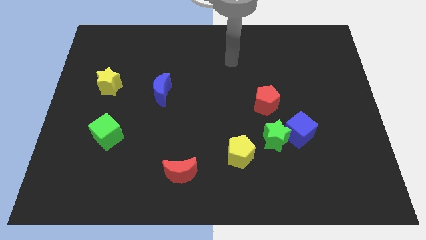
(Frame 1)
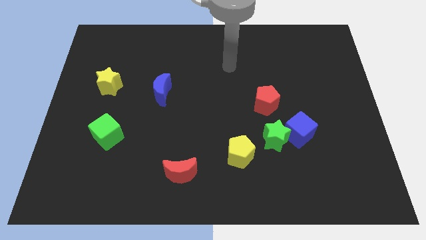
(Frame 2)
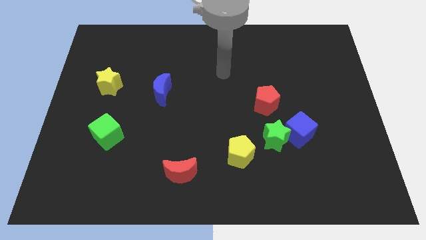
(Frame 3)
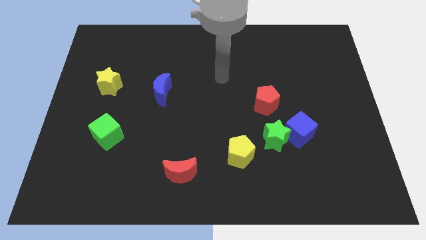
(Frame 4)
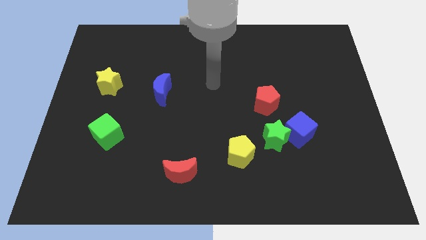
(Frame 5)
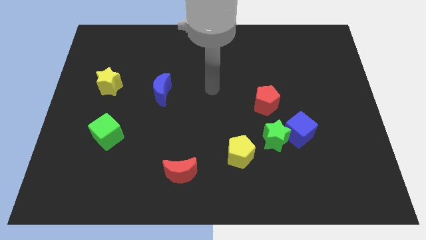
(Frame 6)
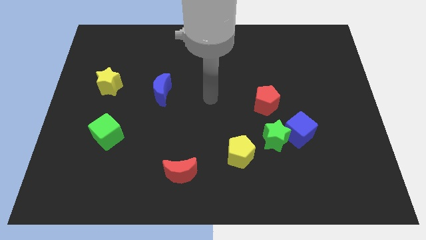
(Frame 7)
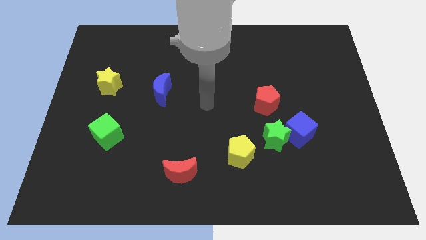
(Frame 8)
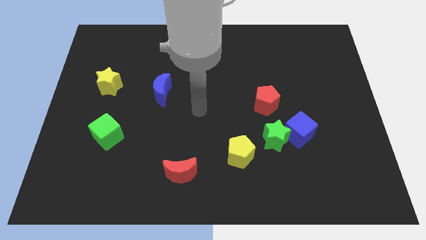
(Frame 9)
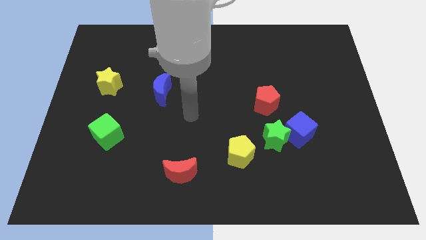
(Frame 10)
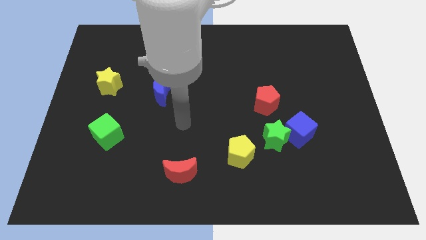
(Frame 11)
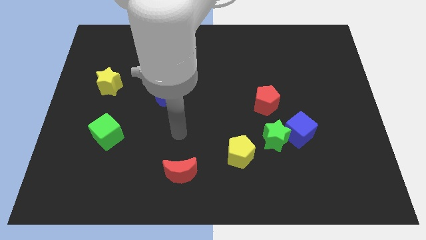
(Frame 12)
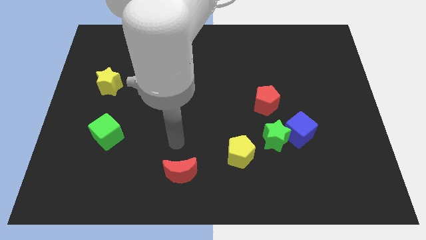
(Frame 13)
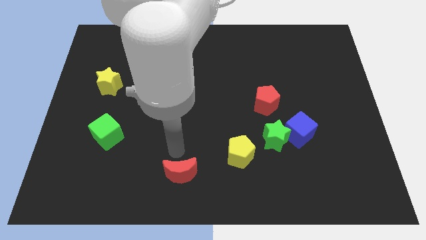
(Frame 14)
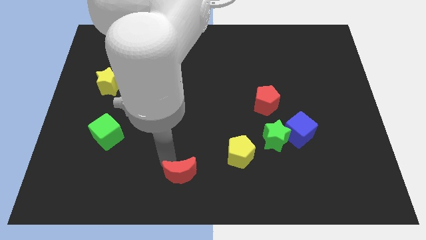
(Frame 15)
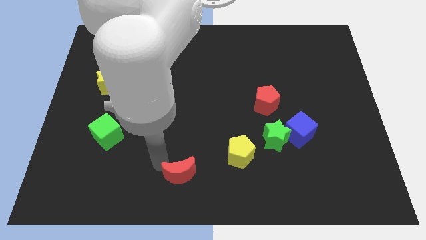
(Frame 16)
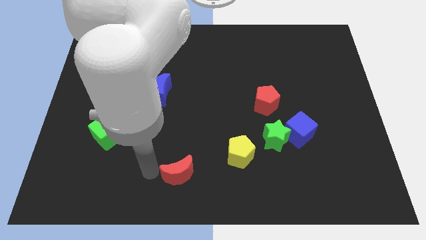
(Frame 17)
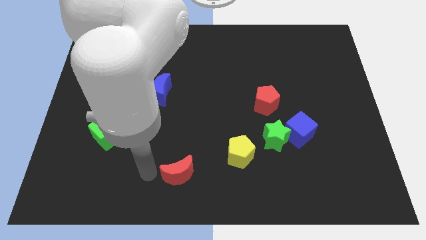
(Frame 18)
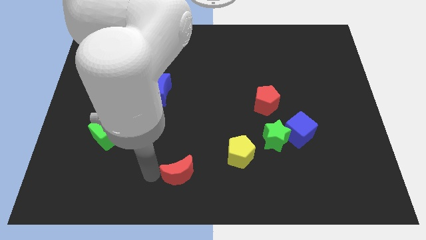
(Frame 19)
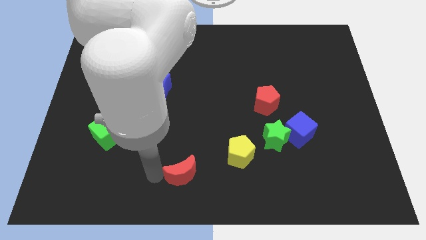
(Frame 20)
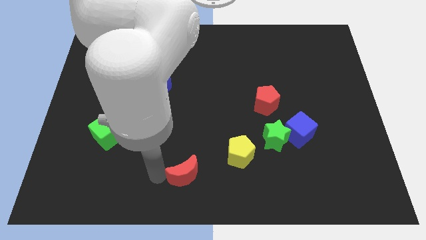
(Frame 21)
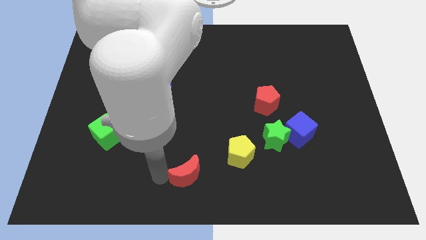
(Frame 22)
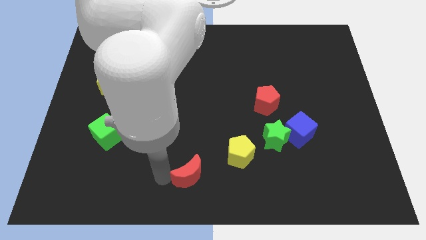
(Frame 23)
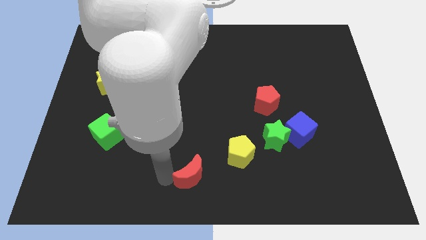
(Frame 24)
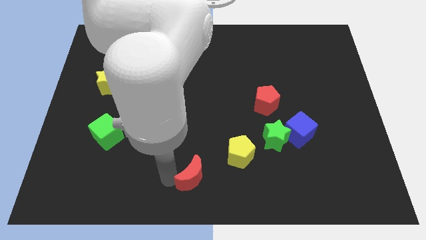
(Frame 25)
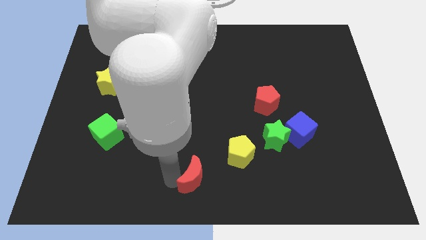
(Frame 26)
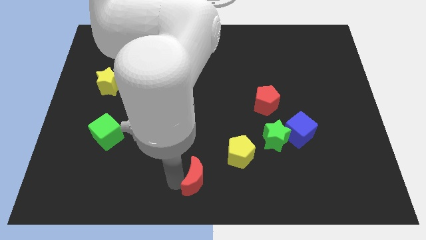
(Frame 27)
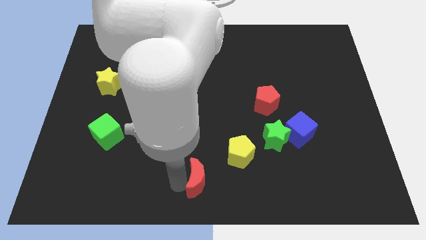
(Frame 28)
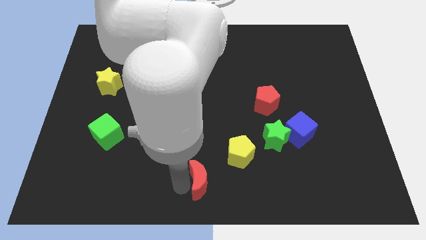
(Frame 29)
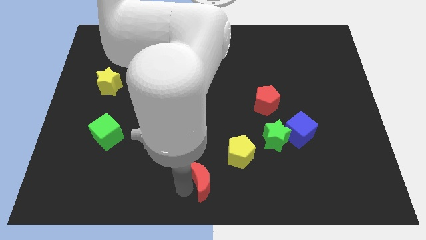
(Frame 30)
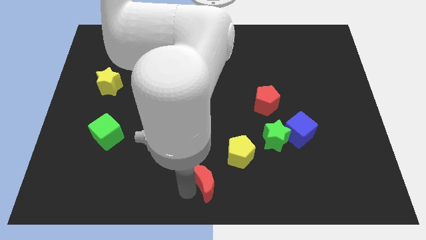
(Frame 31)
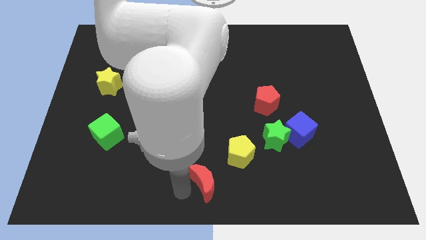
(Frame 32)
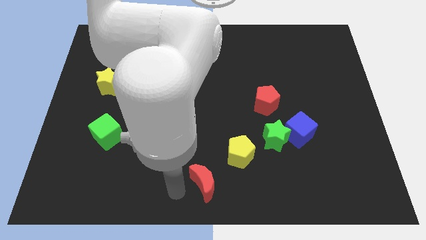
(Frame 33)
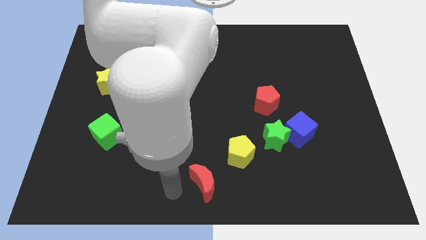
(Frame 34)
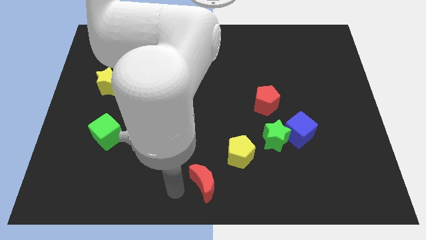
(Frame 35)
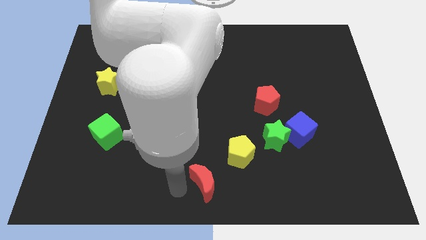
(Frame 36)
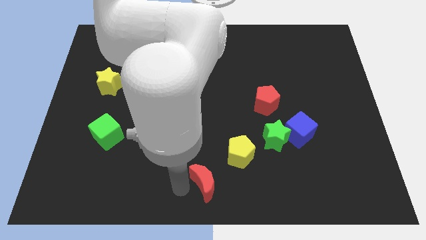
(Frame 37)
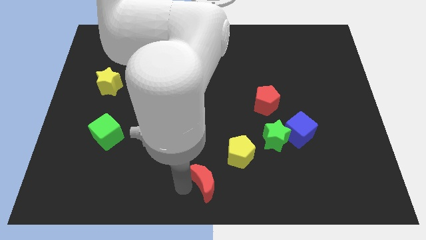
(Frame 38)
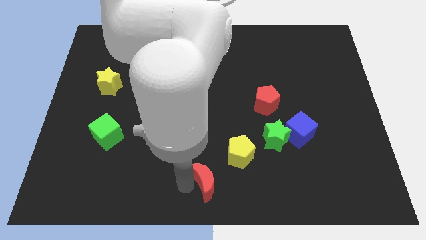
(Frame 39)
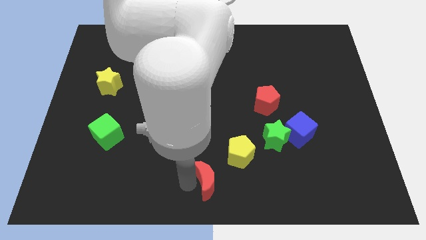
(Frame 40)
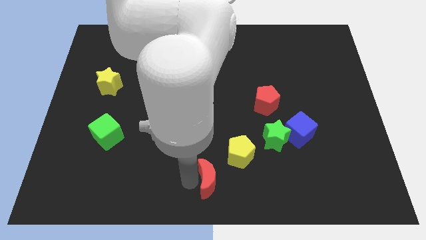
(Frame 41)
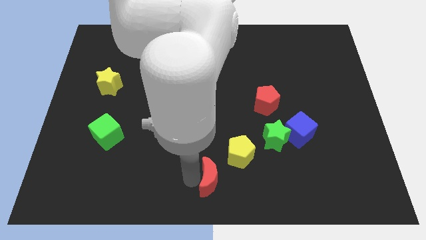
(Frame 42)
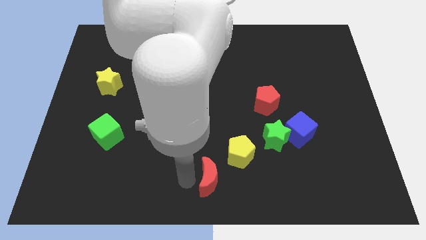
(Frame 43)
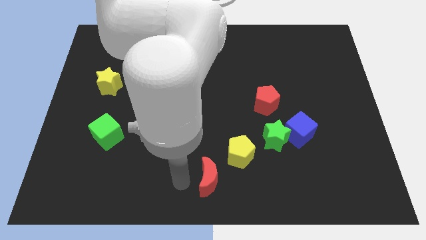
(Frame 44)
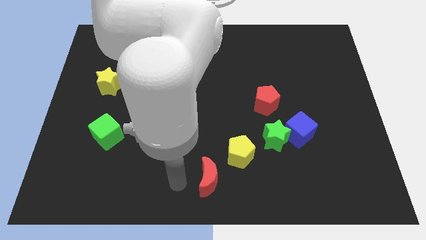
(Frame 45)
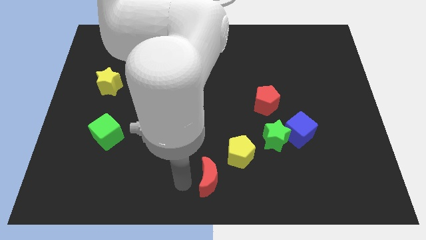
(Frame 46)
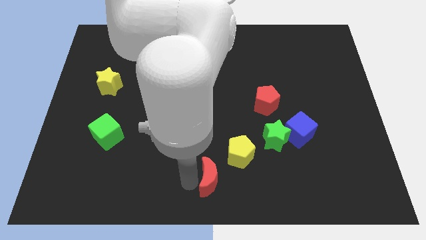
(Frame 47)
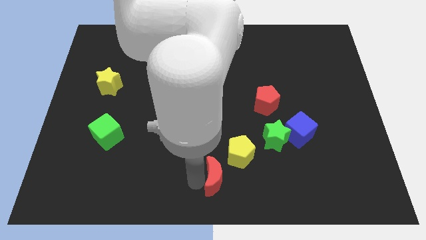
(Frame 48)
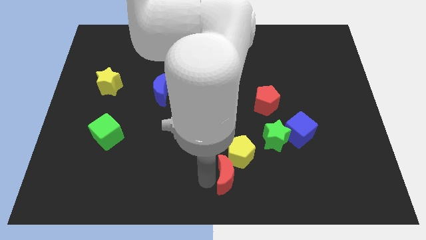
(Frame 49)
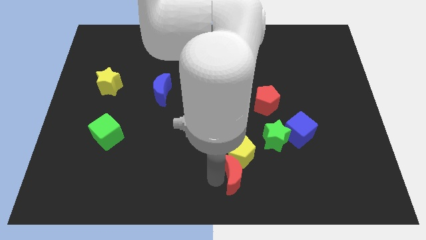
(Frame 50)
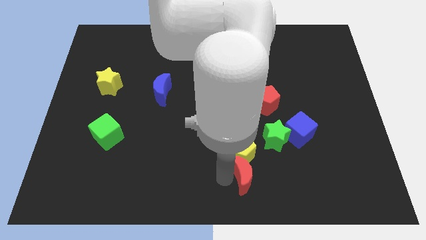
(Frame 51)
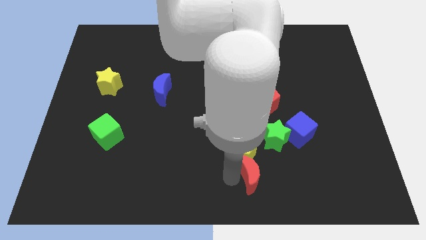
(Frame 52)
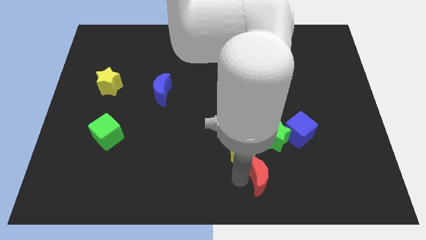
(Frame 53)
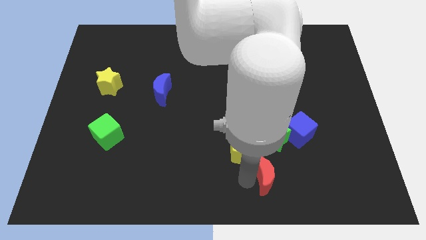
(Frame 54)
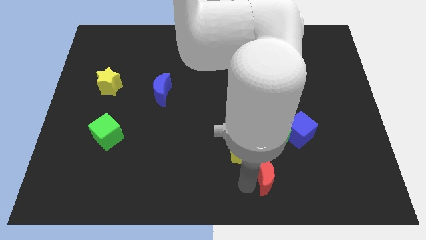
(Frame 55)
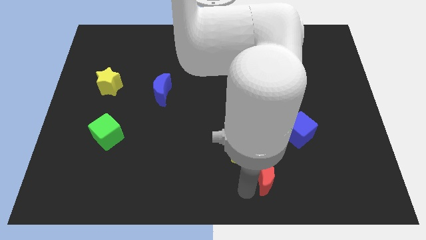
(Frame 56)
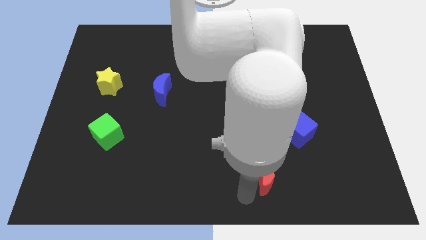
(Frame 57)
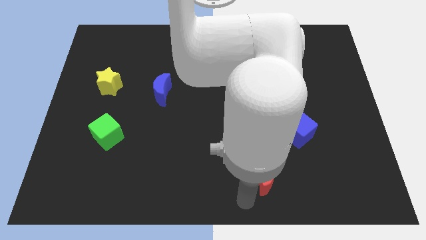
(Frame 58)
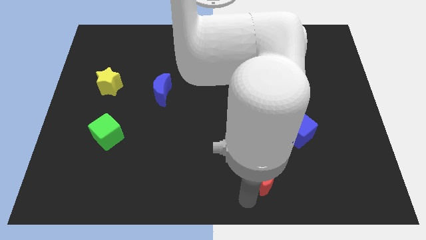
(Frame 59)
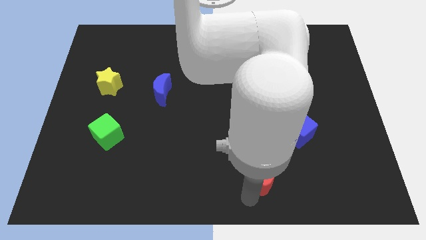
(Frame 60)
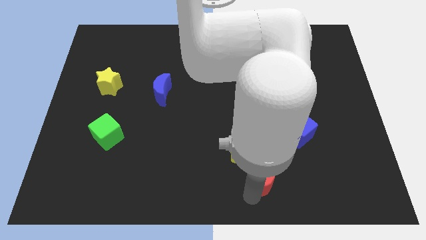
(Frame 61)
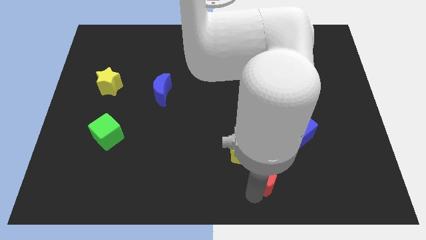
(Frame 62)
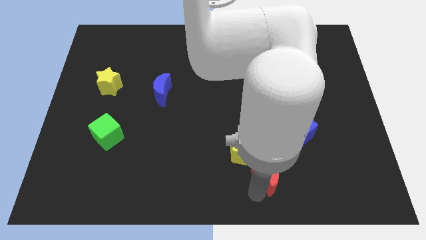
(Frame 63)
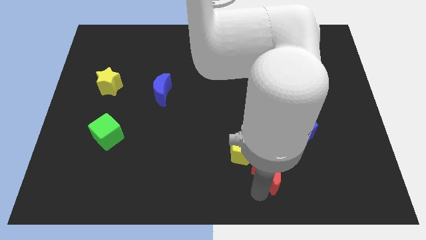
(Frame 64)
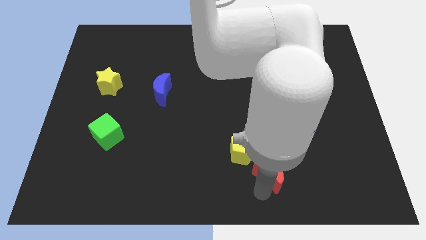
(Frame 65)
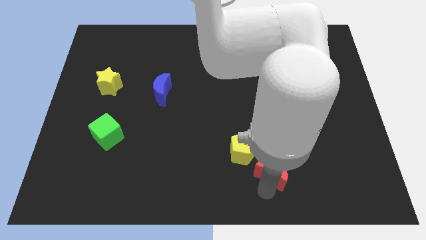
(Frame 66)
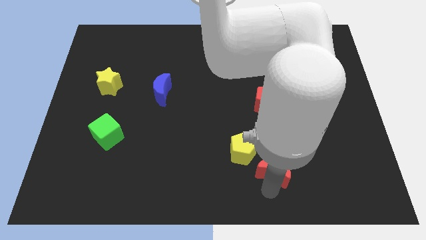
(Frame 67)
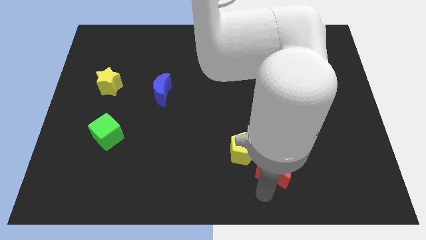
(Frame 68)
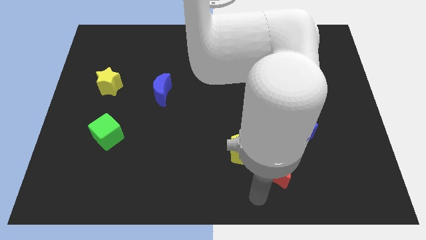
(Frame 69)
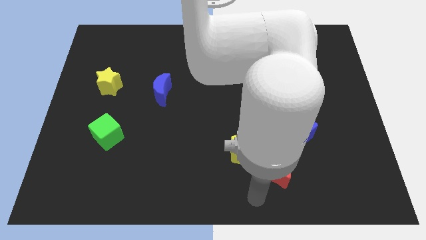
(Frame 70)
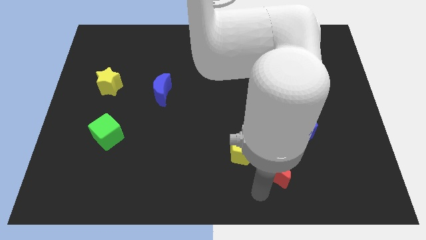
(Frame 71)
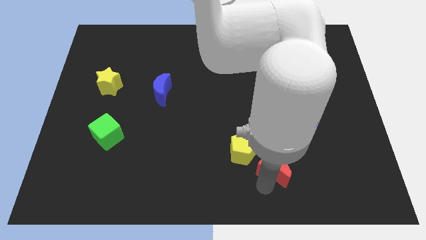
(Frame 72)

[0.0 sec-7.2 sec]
slide the red moon right of the yellow pentagon

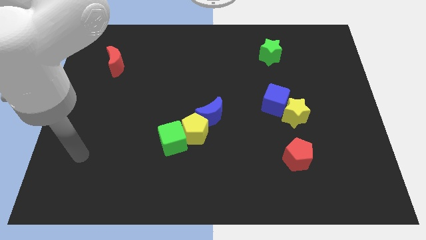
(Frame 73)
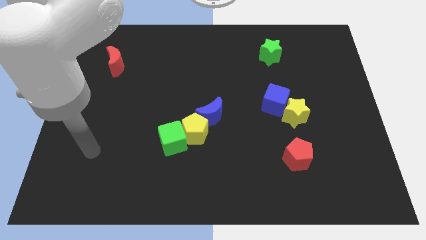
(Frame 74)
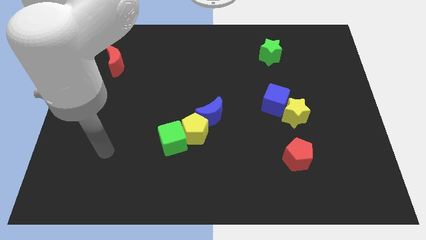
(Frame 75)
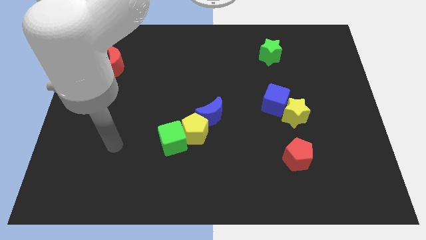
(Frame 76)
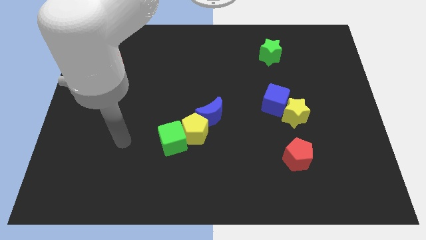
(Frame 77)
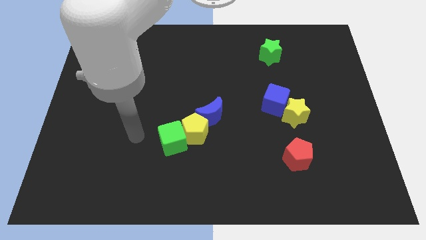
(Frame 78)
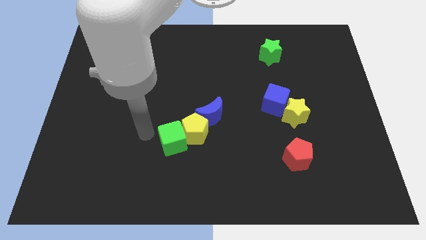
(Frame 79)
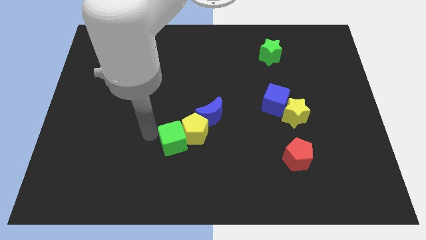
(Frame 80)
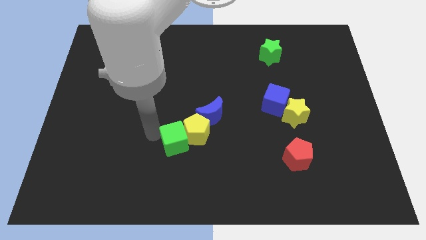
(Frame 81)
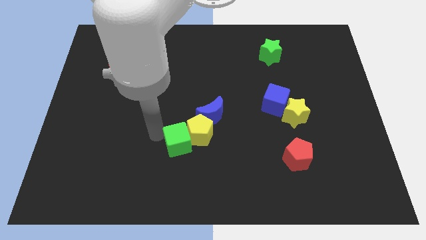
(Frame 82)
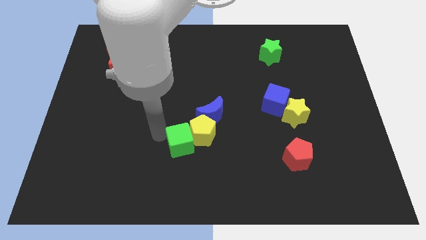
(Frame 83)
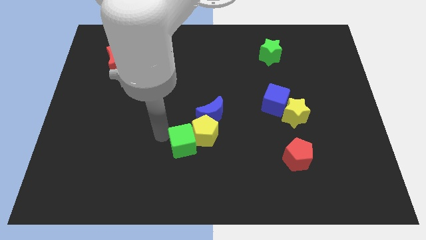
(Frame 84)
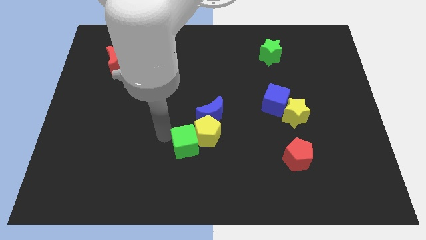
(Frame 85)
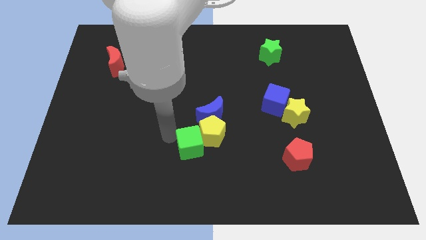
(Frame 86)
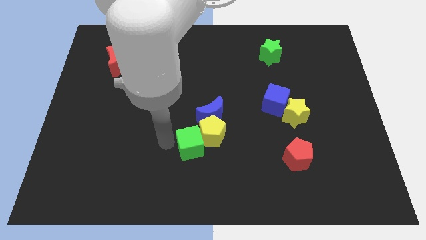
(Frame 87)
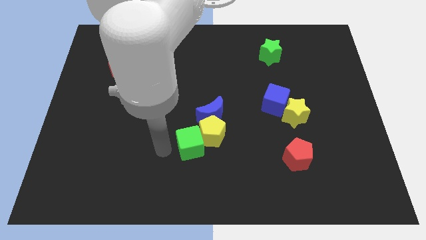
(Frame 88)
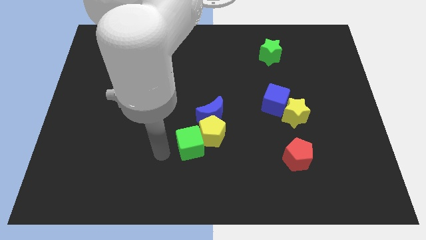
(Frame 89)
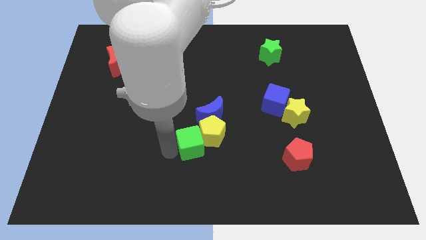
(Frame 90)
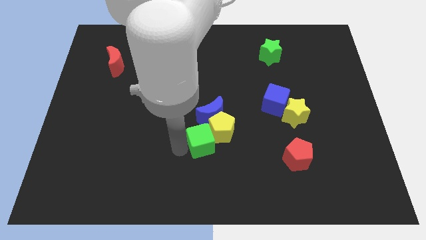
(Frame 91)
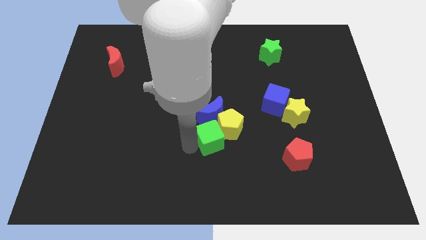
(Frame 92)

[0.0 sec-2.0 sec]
slide the green cube to the bottom right of the blue moon
